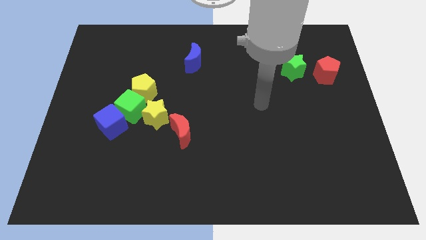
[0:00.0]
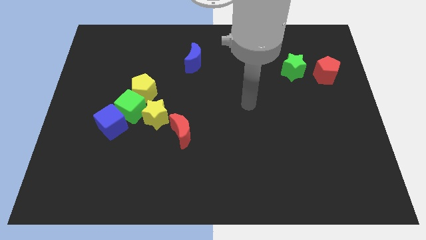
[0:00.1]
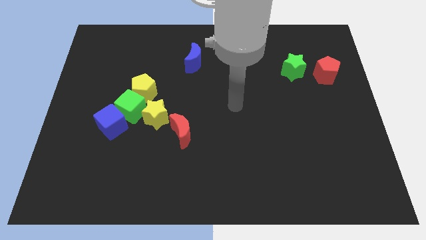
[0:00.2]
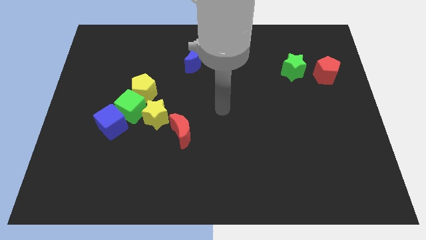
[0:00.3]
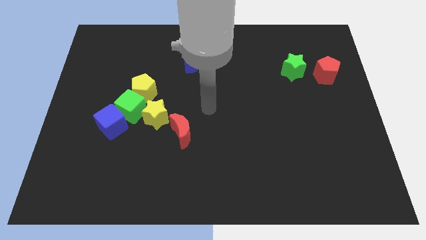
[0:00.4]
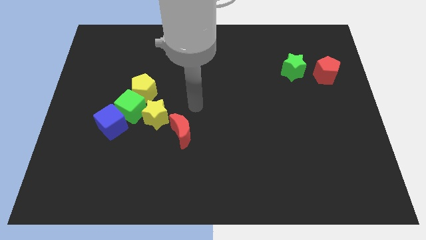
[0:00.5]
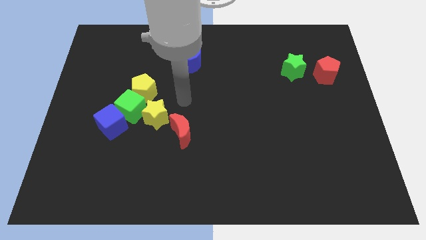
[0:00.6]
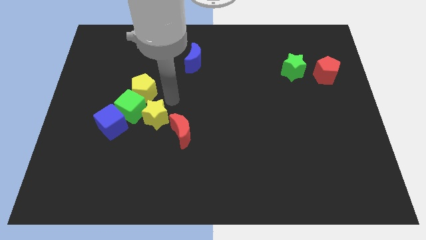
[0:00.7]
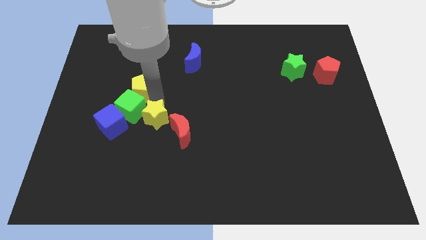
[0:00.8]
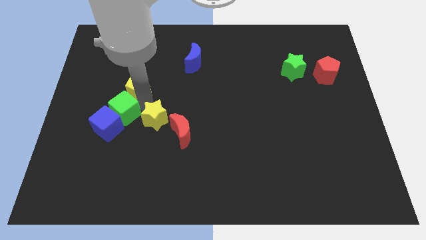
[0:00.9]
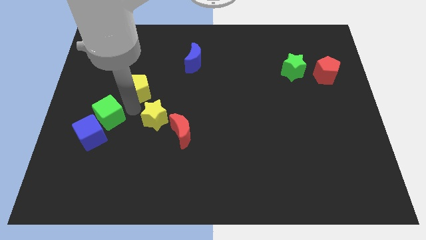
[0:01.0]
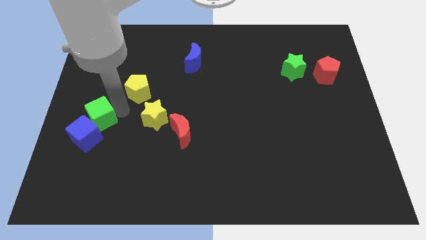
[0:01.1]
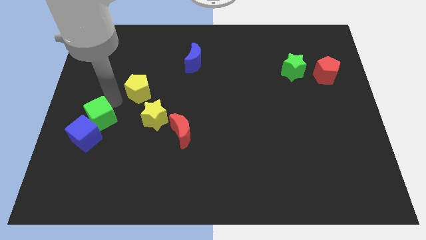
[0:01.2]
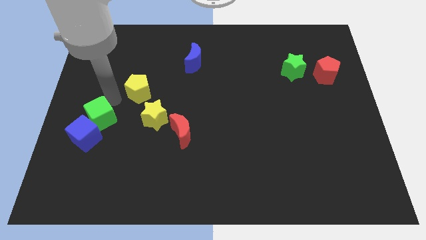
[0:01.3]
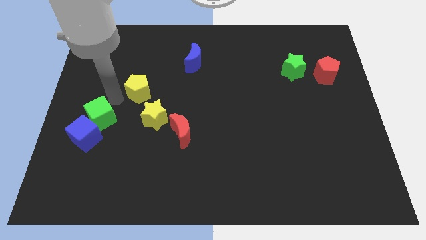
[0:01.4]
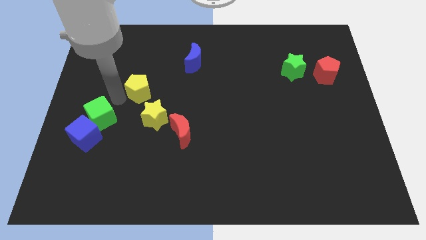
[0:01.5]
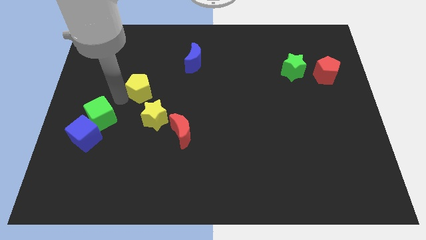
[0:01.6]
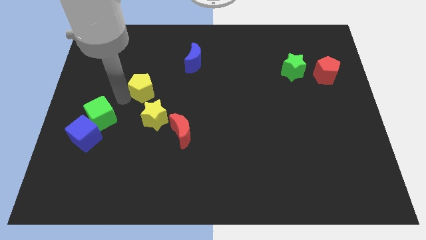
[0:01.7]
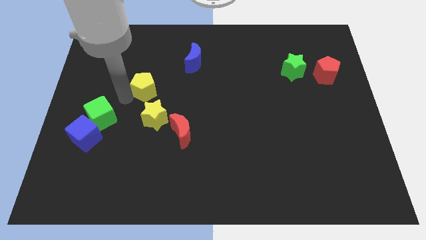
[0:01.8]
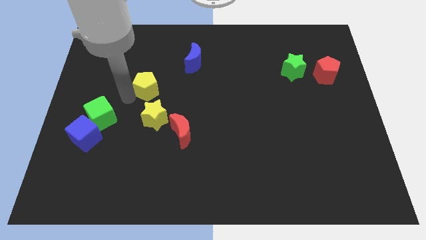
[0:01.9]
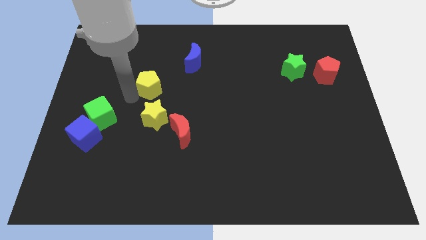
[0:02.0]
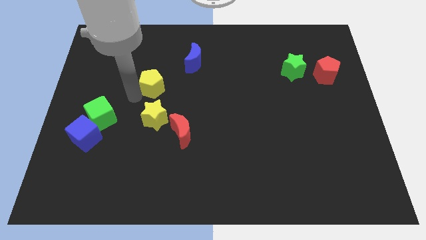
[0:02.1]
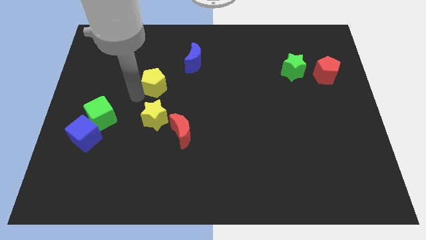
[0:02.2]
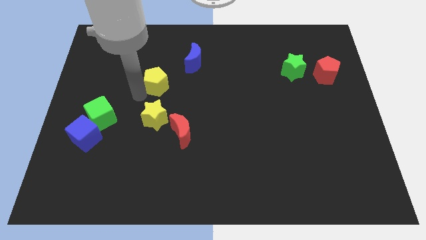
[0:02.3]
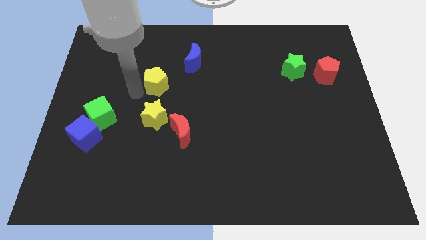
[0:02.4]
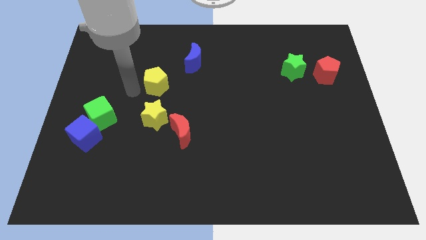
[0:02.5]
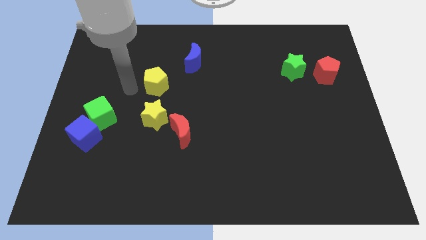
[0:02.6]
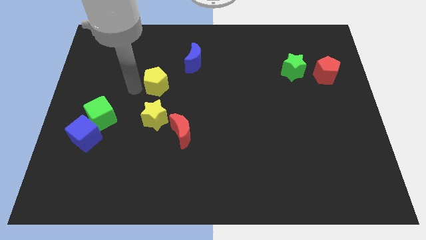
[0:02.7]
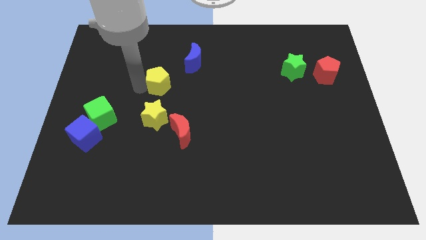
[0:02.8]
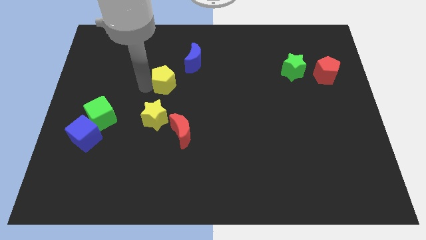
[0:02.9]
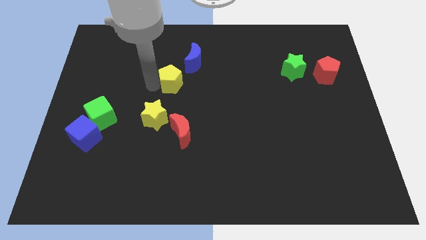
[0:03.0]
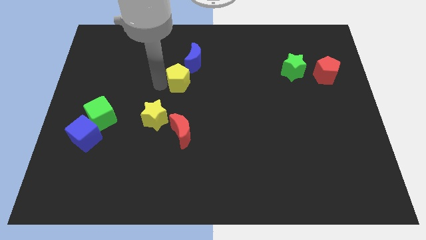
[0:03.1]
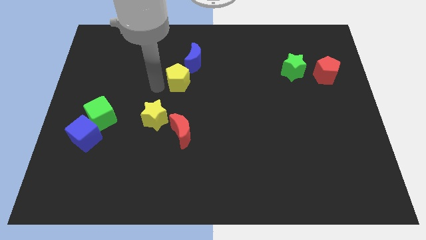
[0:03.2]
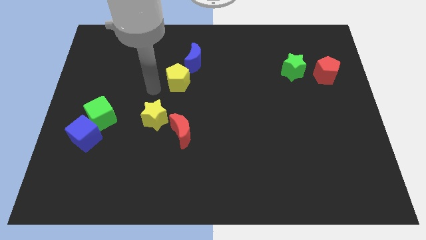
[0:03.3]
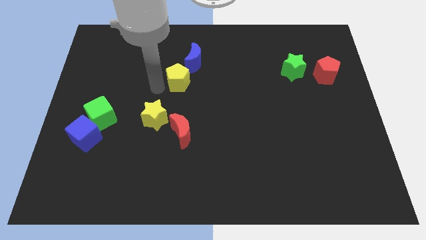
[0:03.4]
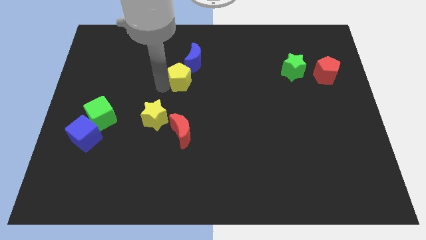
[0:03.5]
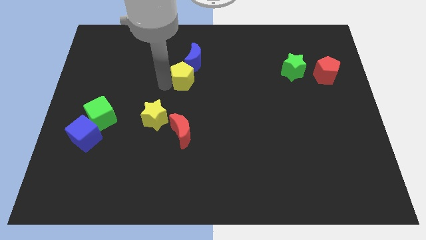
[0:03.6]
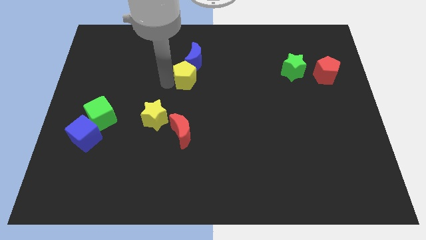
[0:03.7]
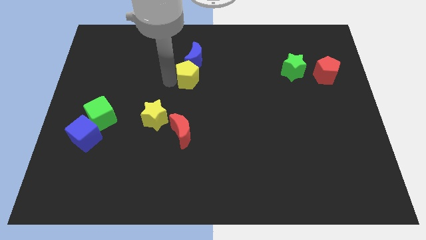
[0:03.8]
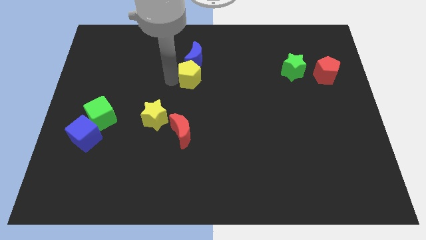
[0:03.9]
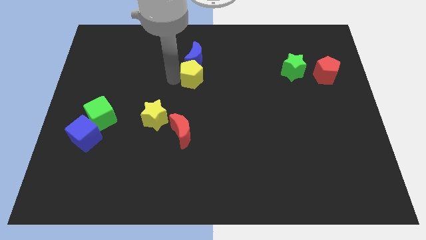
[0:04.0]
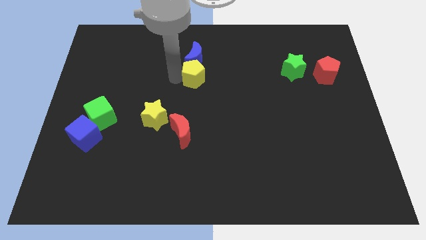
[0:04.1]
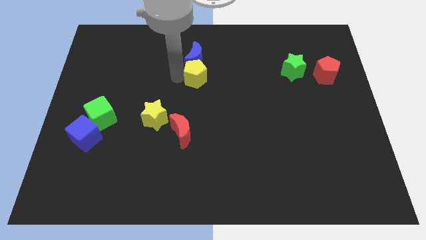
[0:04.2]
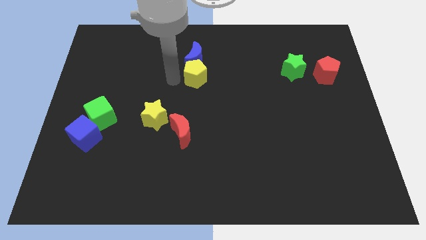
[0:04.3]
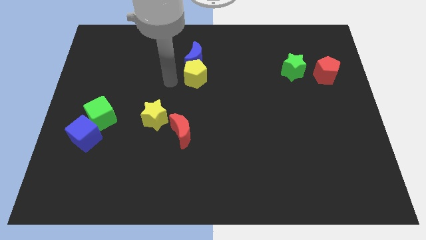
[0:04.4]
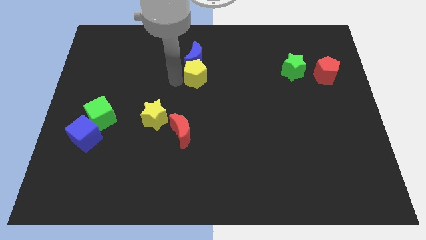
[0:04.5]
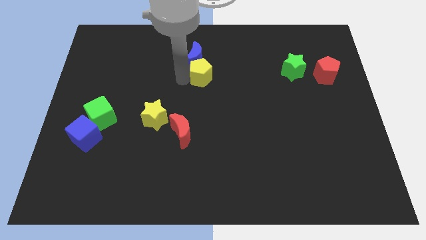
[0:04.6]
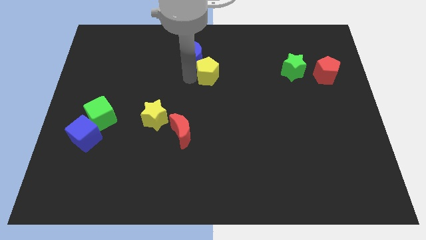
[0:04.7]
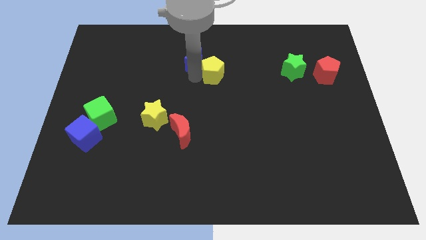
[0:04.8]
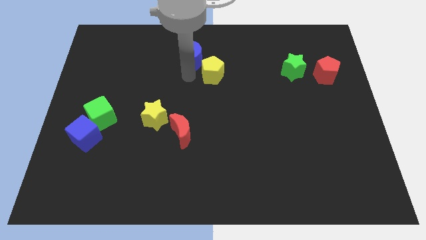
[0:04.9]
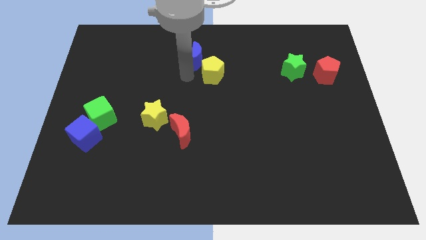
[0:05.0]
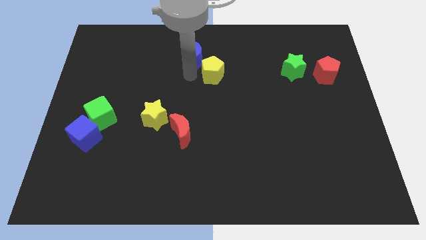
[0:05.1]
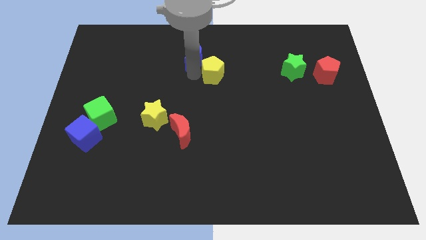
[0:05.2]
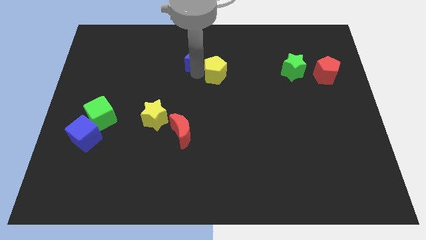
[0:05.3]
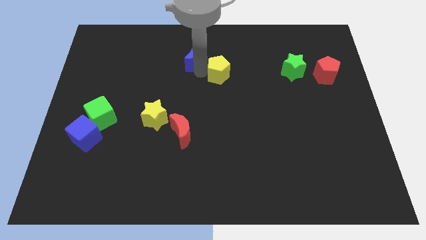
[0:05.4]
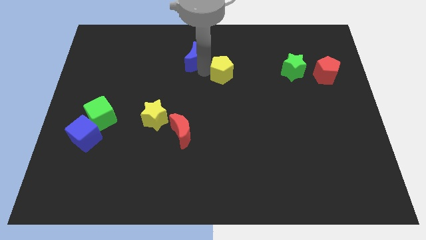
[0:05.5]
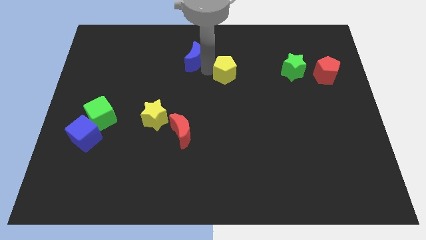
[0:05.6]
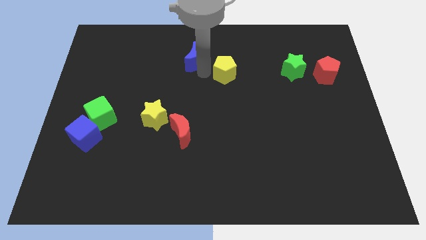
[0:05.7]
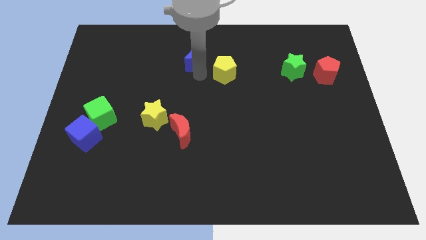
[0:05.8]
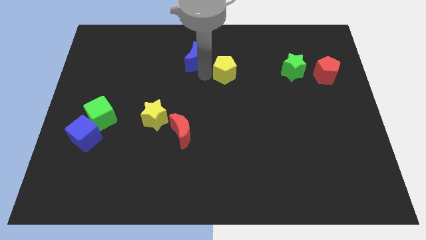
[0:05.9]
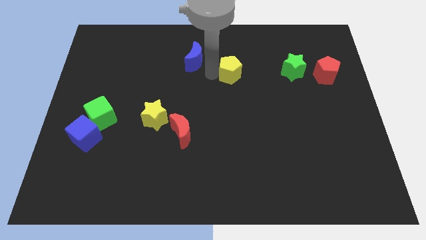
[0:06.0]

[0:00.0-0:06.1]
push the yellow pentagon just left of the green star

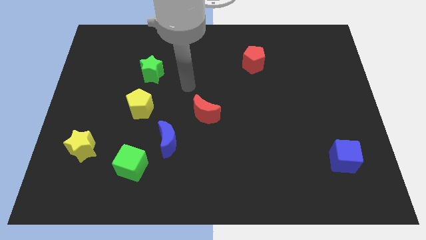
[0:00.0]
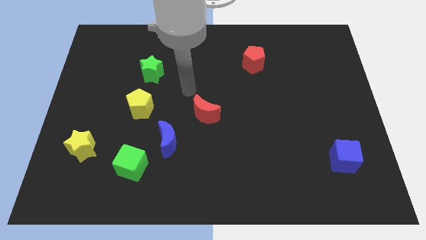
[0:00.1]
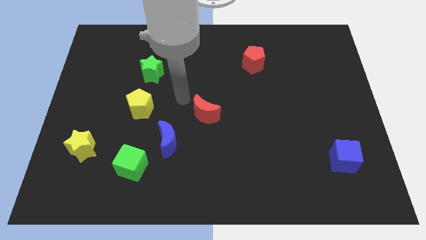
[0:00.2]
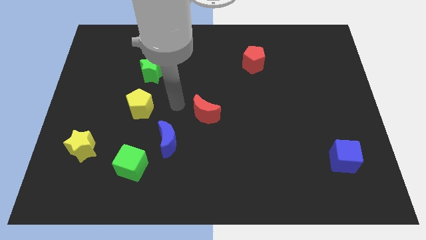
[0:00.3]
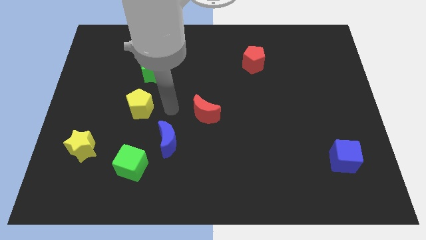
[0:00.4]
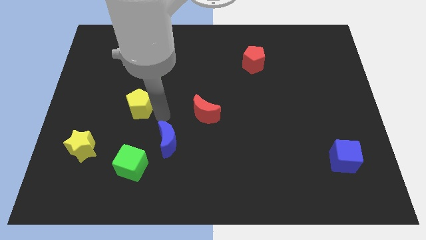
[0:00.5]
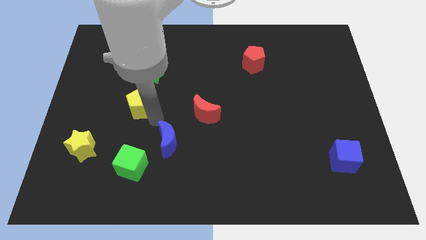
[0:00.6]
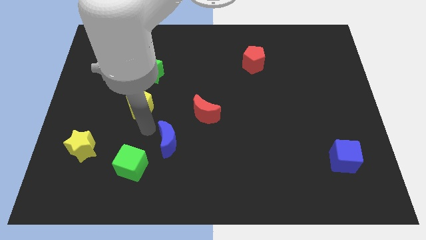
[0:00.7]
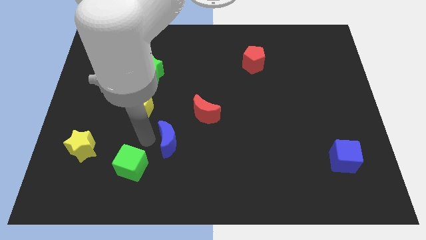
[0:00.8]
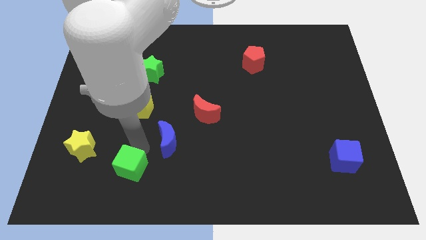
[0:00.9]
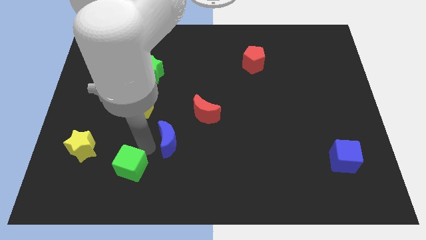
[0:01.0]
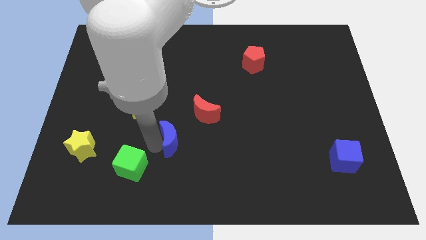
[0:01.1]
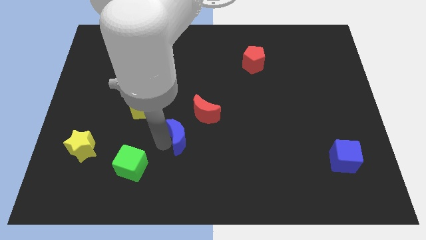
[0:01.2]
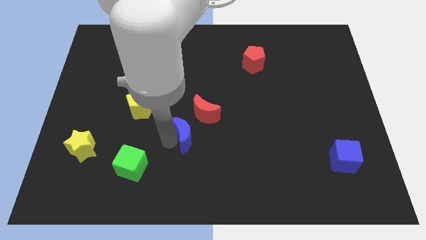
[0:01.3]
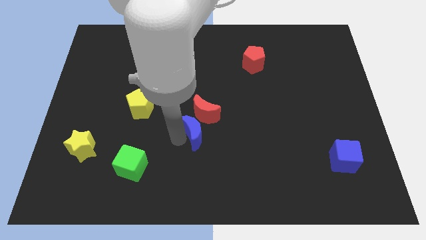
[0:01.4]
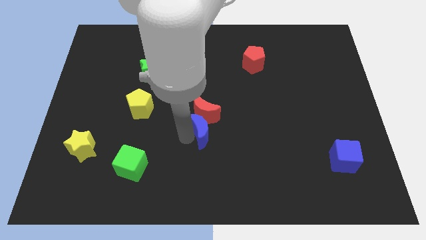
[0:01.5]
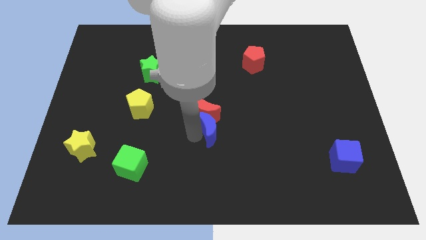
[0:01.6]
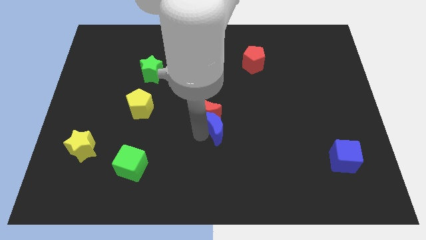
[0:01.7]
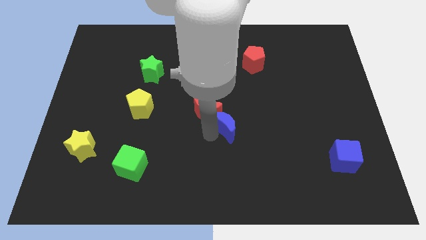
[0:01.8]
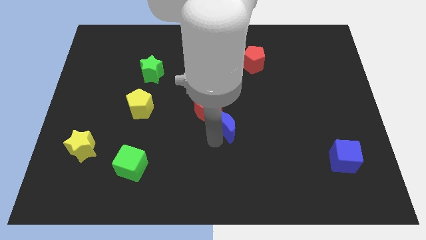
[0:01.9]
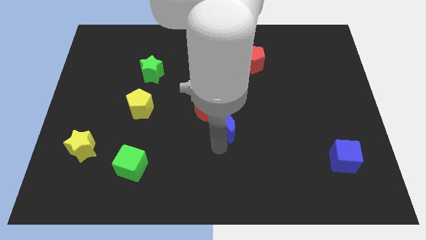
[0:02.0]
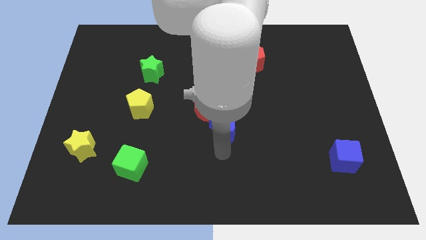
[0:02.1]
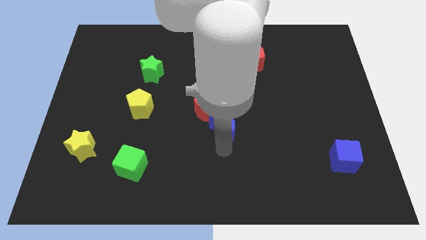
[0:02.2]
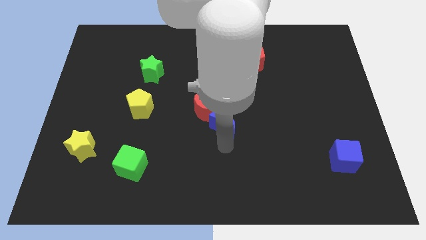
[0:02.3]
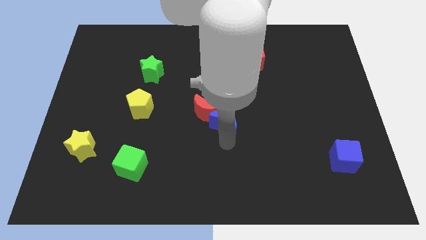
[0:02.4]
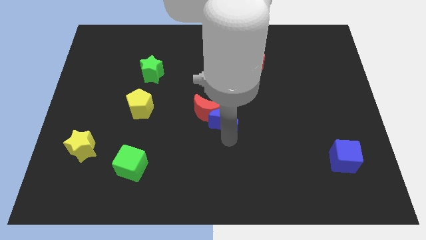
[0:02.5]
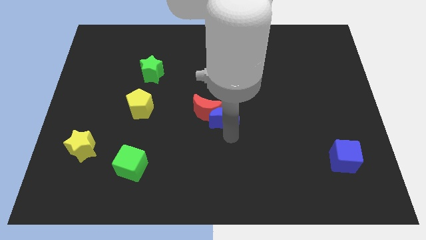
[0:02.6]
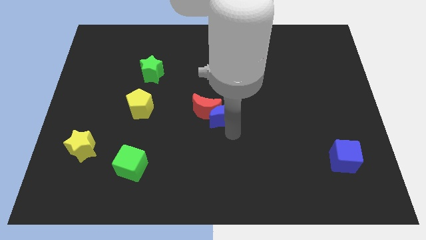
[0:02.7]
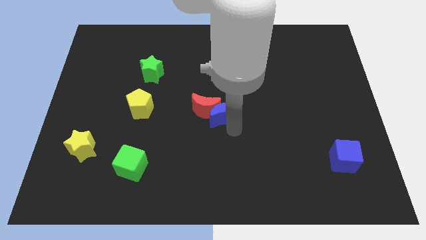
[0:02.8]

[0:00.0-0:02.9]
move the blue moon diagonally up and to the right of the red moon
